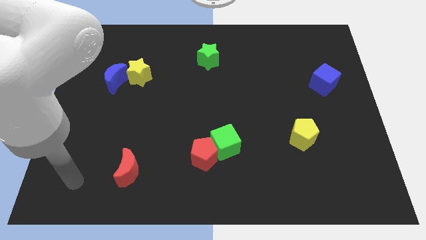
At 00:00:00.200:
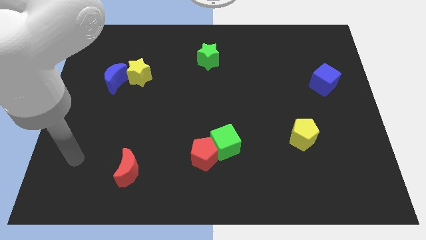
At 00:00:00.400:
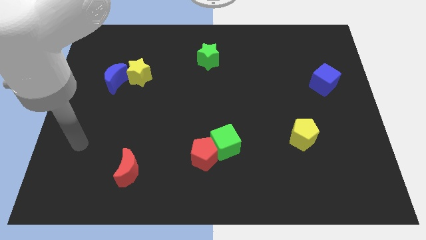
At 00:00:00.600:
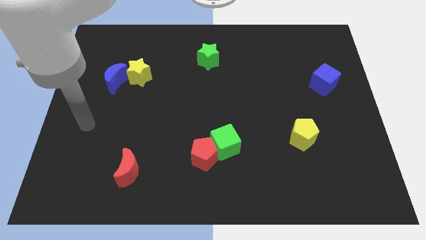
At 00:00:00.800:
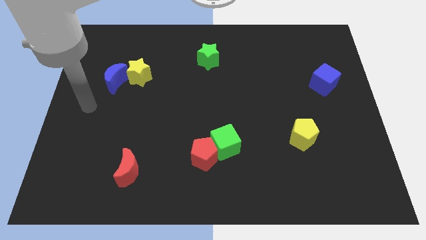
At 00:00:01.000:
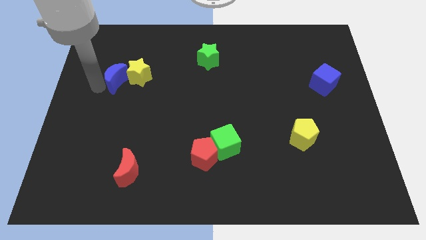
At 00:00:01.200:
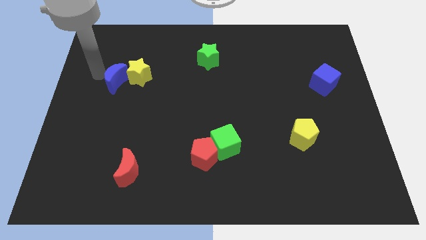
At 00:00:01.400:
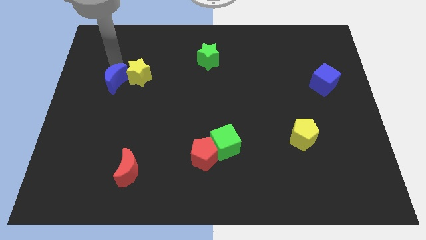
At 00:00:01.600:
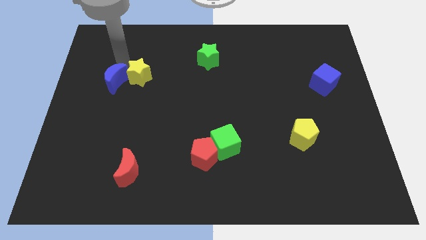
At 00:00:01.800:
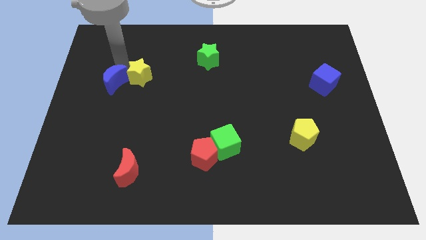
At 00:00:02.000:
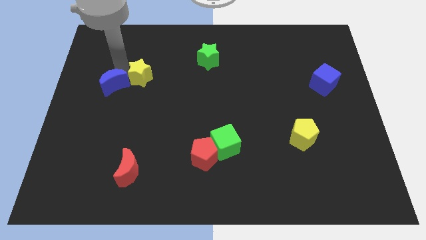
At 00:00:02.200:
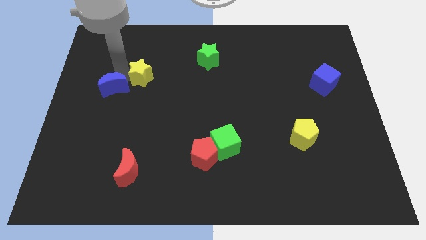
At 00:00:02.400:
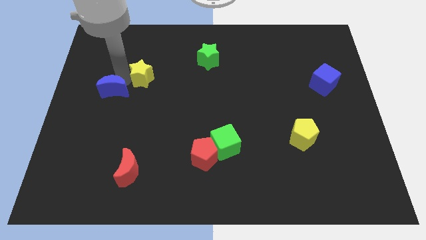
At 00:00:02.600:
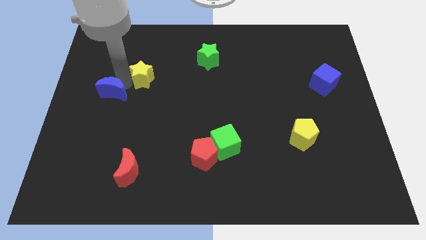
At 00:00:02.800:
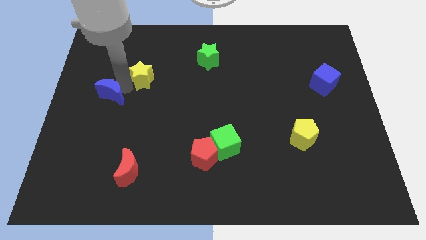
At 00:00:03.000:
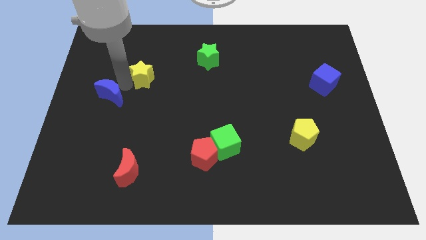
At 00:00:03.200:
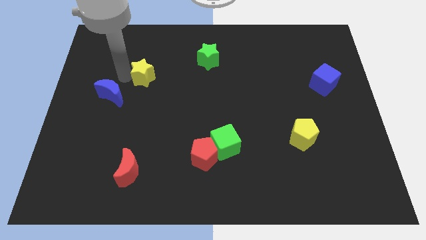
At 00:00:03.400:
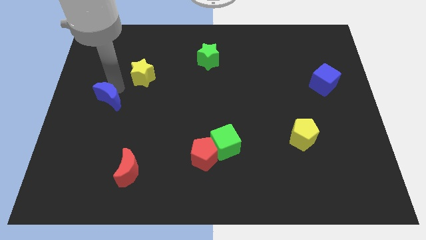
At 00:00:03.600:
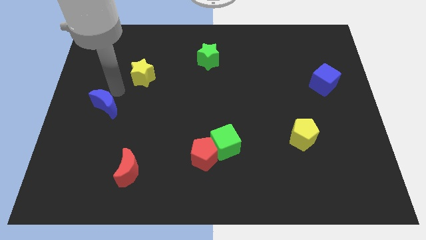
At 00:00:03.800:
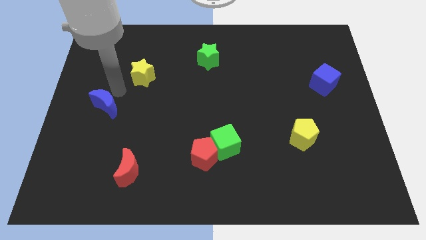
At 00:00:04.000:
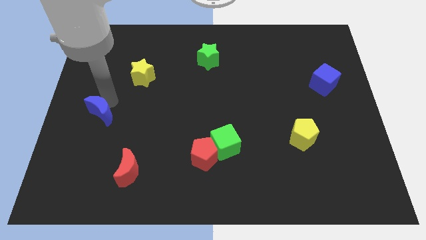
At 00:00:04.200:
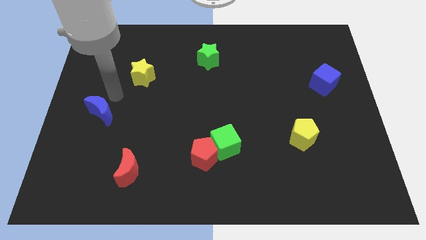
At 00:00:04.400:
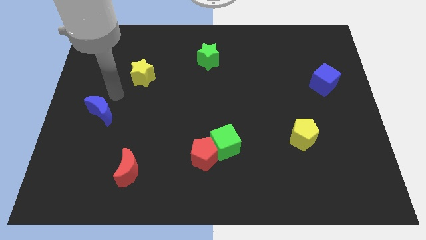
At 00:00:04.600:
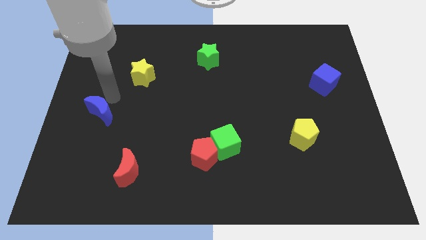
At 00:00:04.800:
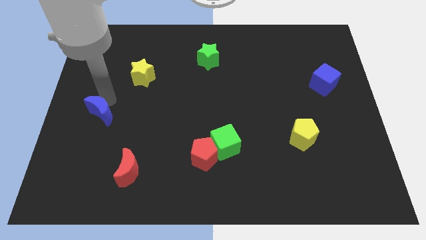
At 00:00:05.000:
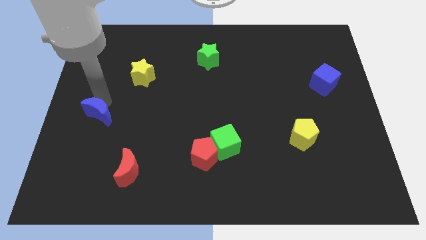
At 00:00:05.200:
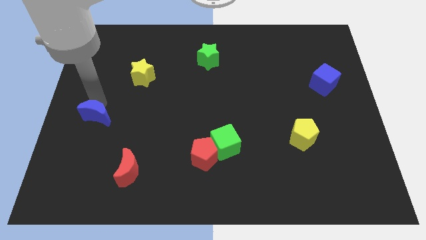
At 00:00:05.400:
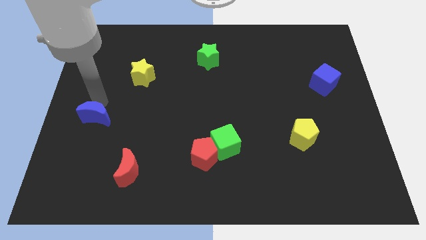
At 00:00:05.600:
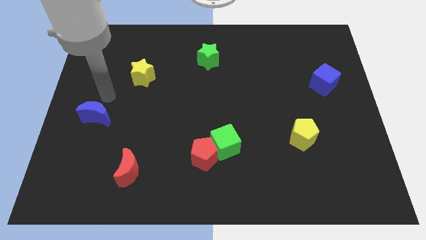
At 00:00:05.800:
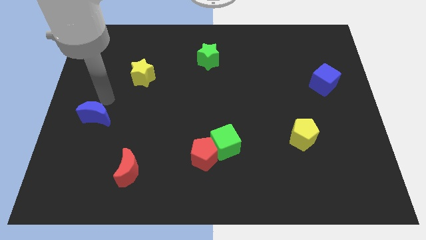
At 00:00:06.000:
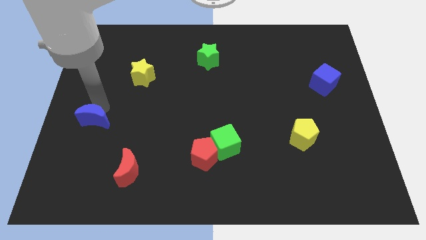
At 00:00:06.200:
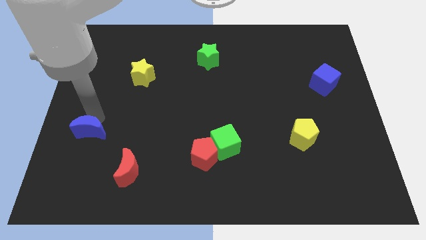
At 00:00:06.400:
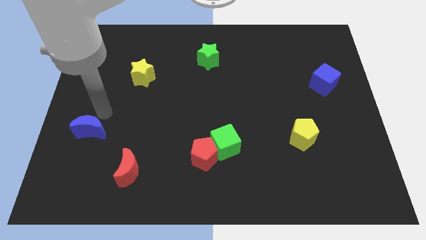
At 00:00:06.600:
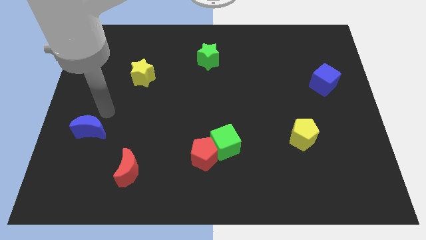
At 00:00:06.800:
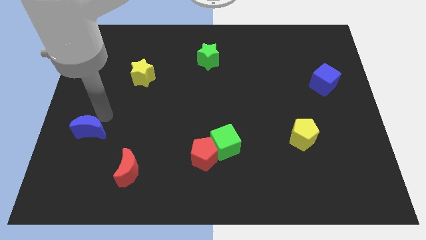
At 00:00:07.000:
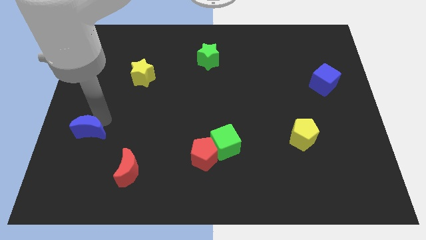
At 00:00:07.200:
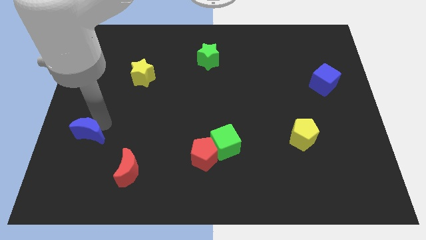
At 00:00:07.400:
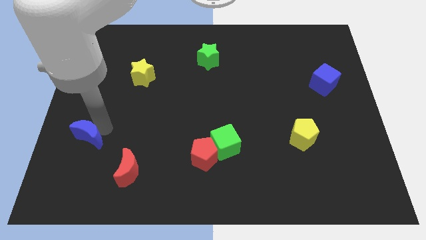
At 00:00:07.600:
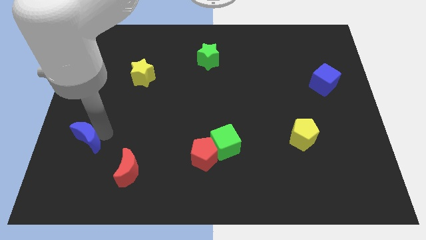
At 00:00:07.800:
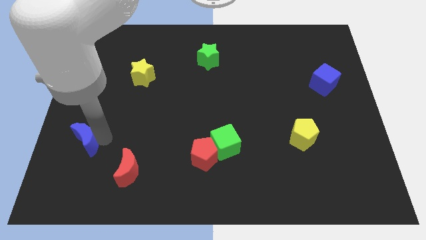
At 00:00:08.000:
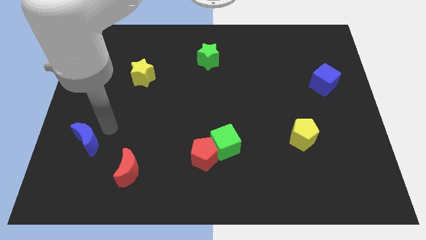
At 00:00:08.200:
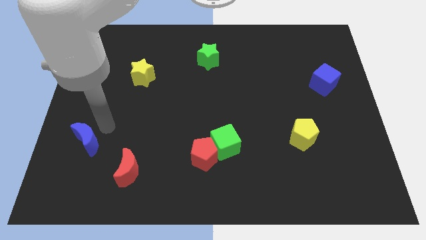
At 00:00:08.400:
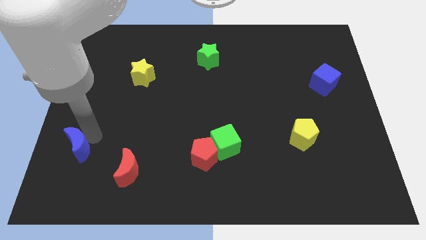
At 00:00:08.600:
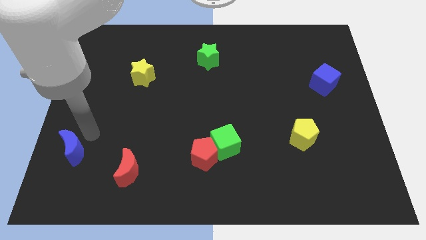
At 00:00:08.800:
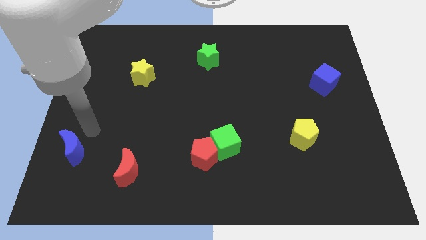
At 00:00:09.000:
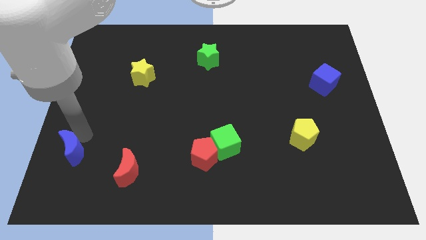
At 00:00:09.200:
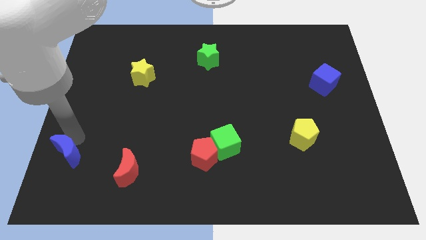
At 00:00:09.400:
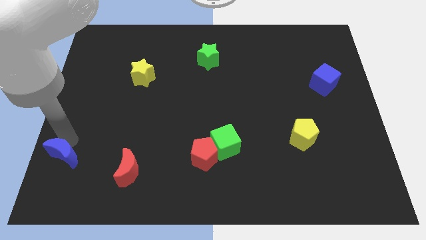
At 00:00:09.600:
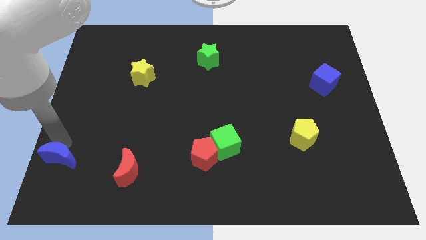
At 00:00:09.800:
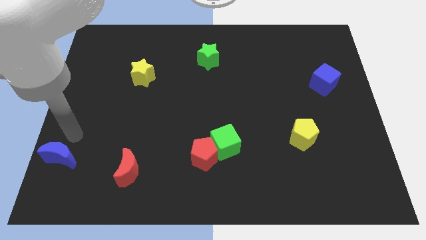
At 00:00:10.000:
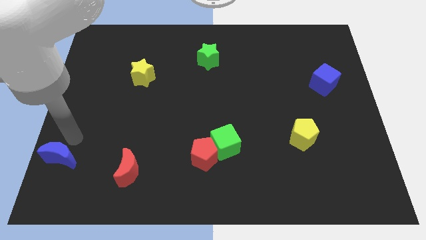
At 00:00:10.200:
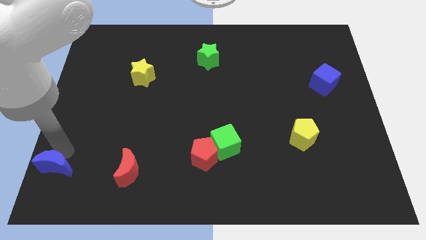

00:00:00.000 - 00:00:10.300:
put the blue moon to the bottom left
